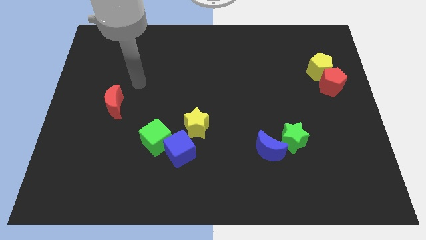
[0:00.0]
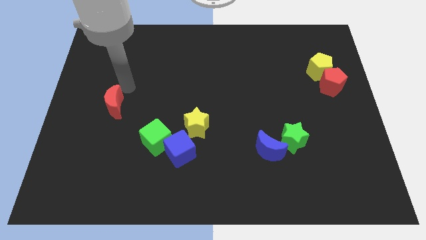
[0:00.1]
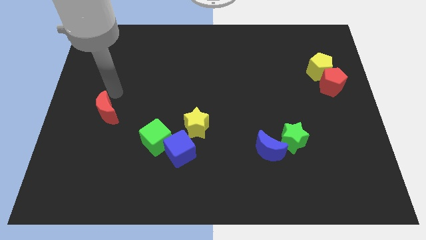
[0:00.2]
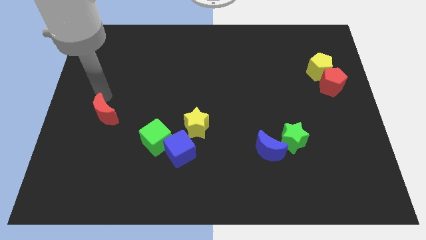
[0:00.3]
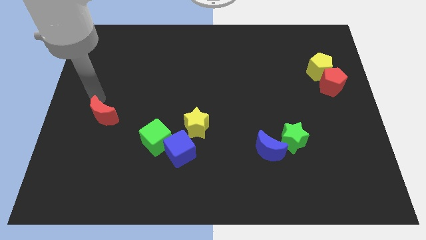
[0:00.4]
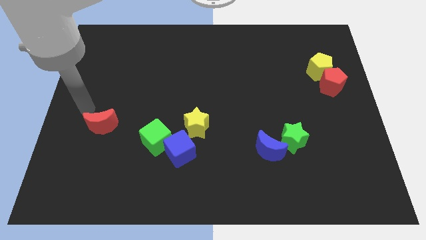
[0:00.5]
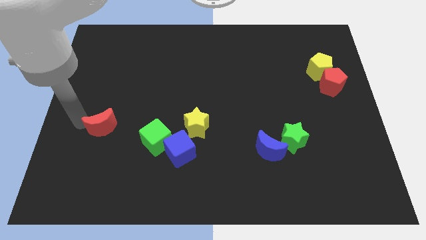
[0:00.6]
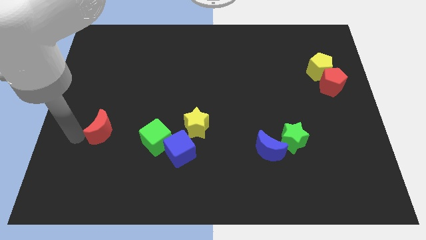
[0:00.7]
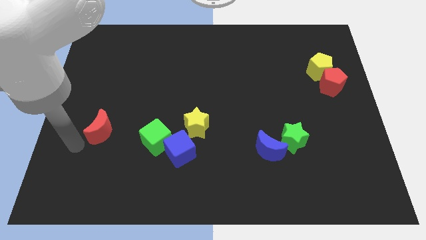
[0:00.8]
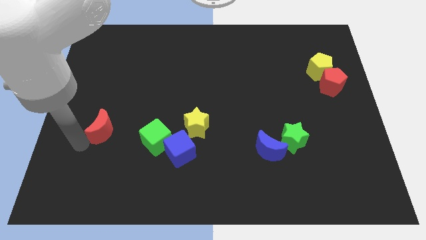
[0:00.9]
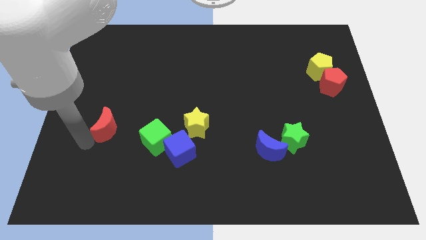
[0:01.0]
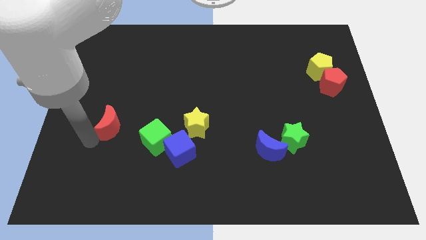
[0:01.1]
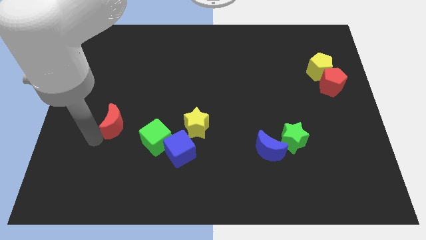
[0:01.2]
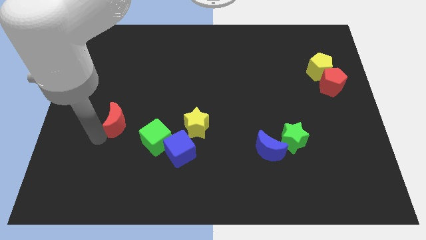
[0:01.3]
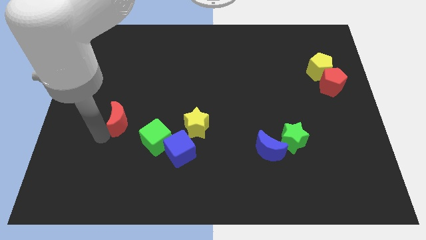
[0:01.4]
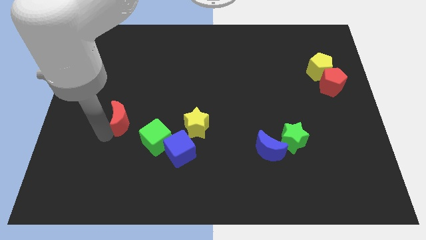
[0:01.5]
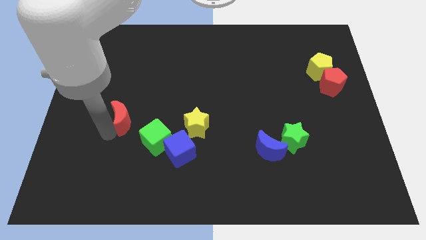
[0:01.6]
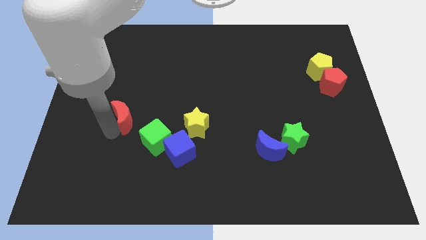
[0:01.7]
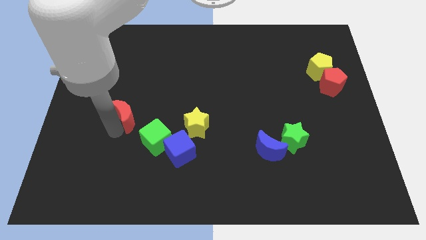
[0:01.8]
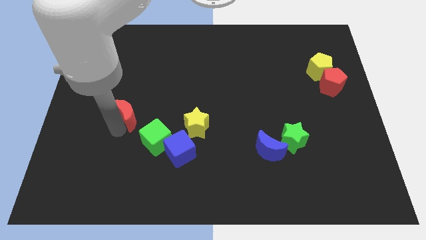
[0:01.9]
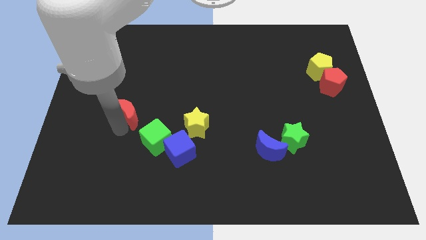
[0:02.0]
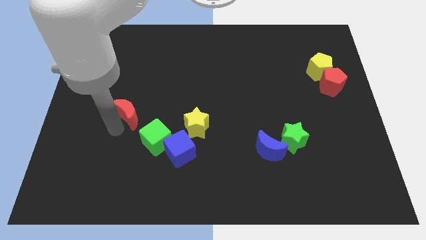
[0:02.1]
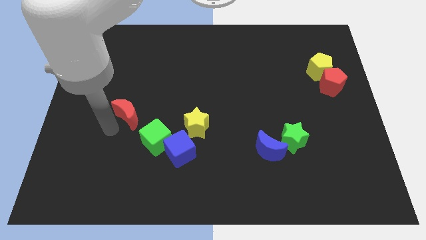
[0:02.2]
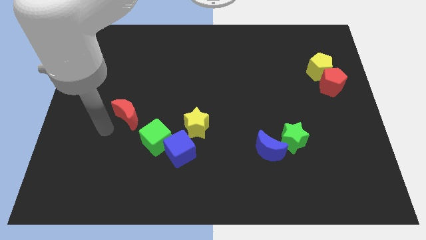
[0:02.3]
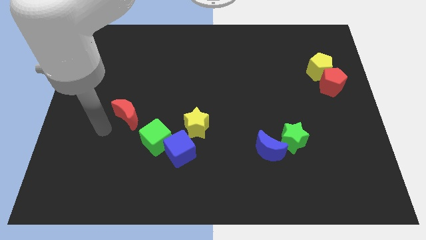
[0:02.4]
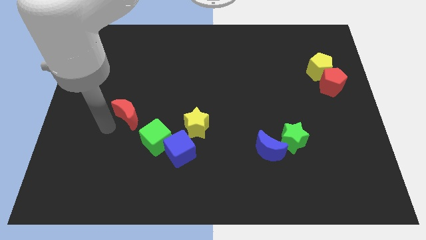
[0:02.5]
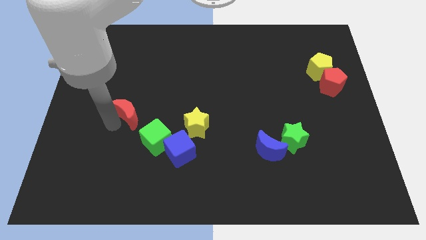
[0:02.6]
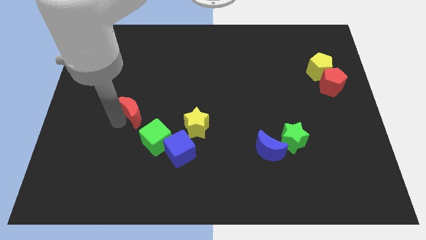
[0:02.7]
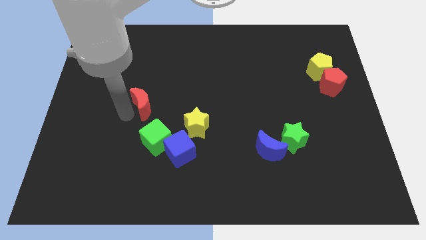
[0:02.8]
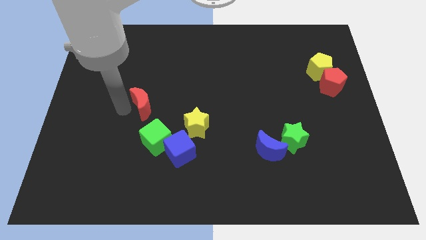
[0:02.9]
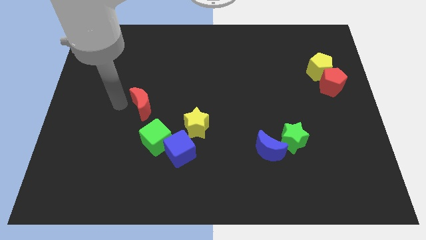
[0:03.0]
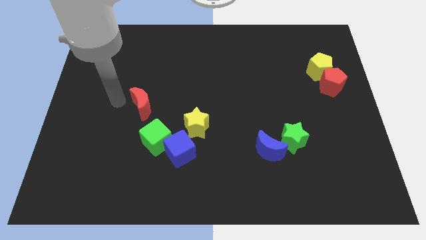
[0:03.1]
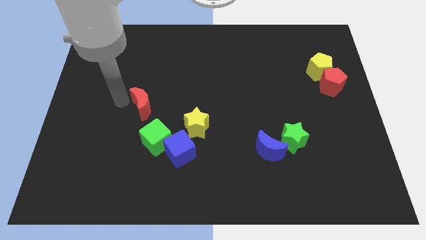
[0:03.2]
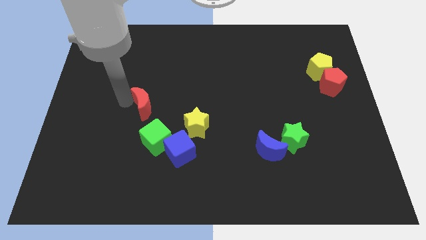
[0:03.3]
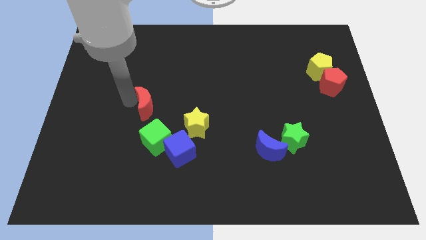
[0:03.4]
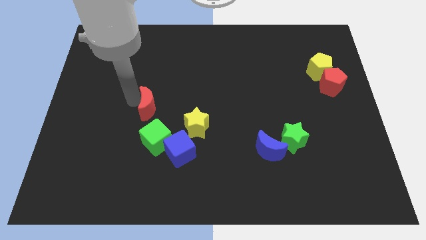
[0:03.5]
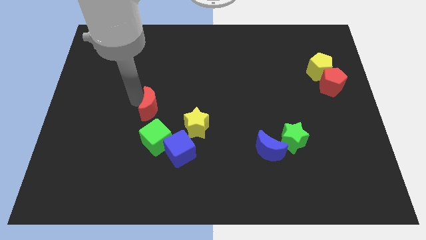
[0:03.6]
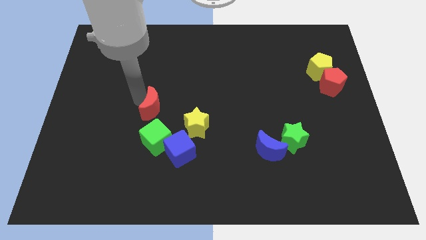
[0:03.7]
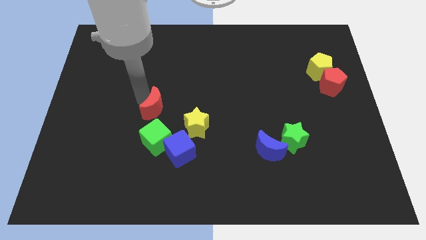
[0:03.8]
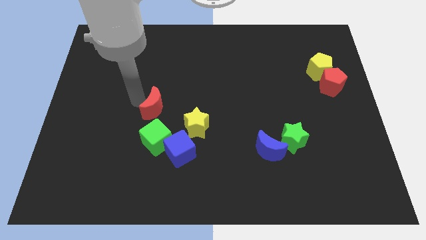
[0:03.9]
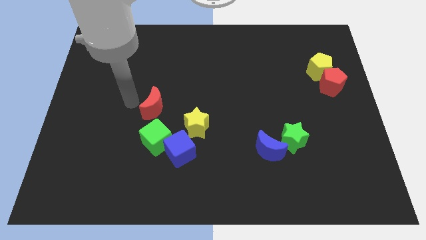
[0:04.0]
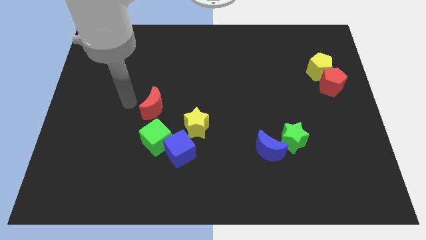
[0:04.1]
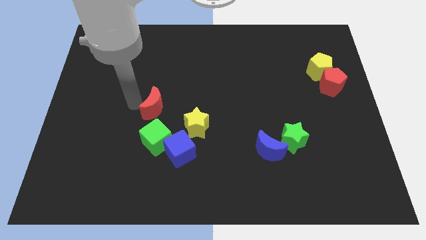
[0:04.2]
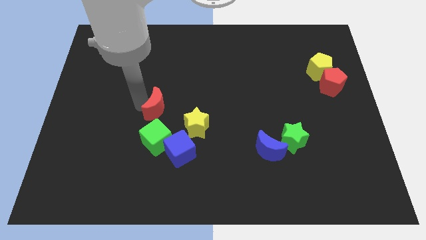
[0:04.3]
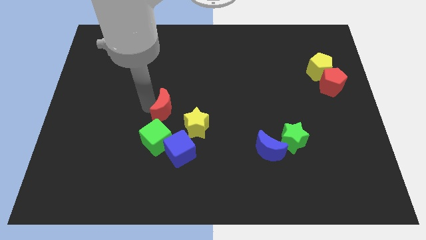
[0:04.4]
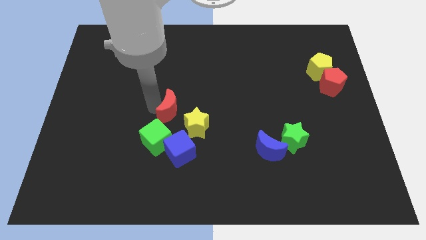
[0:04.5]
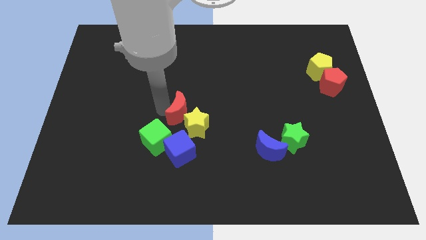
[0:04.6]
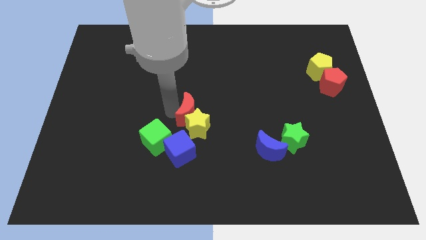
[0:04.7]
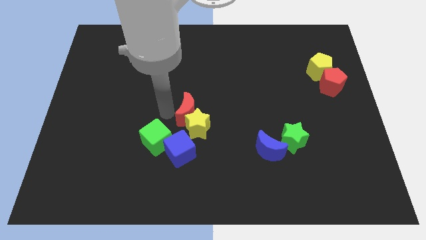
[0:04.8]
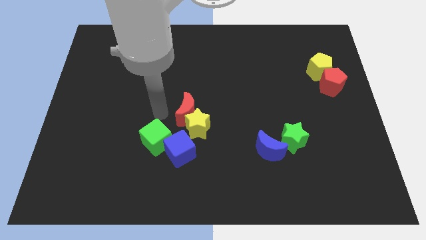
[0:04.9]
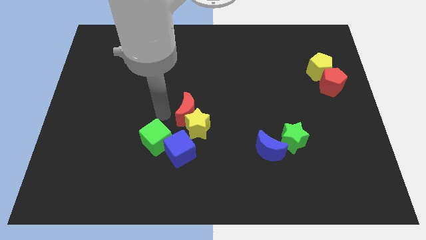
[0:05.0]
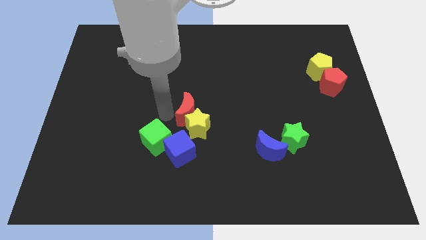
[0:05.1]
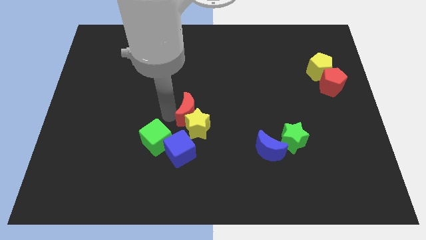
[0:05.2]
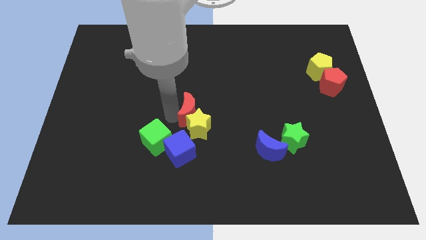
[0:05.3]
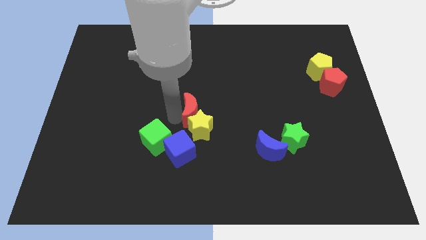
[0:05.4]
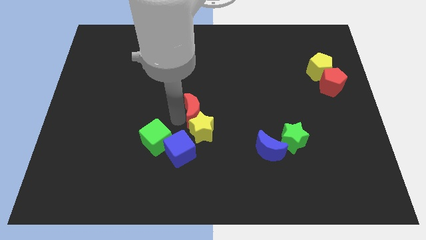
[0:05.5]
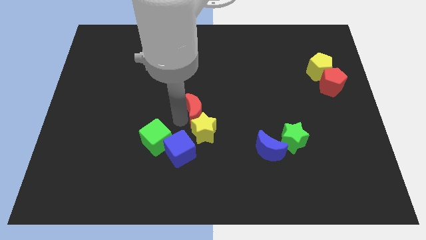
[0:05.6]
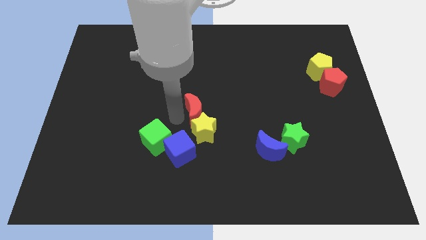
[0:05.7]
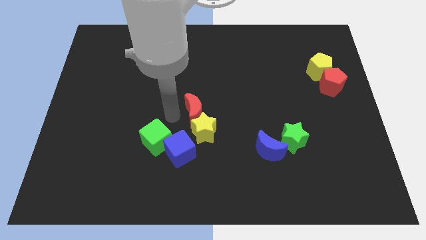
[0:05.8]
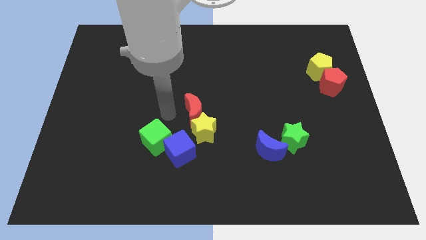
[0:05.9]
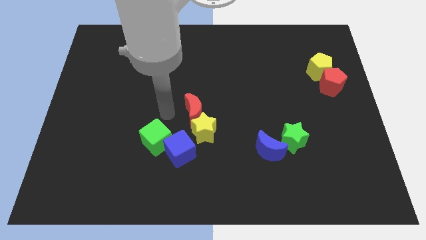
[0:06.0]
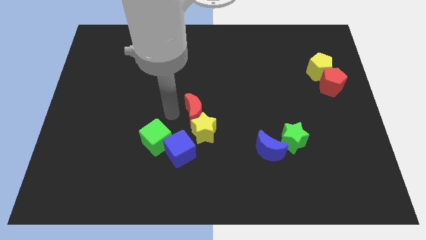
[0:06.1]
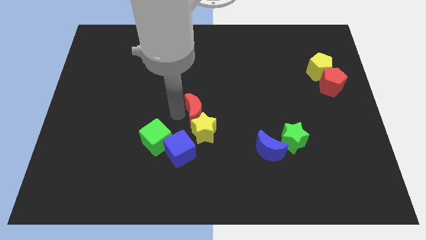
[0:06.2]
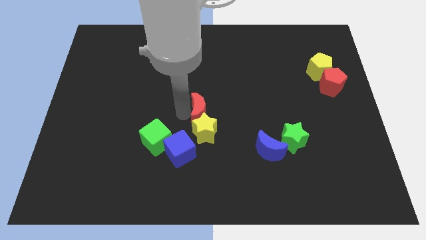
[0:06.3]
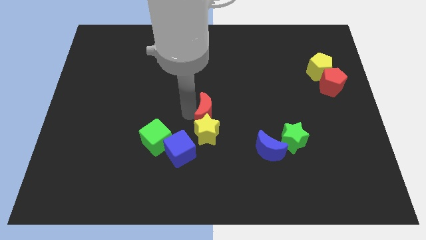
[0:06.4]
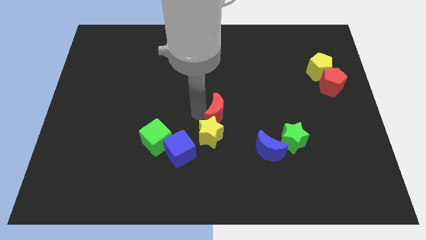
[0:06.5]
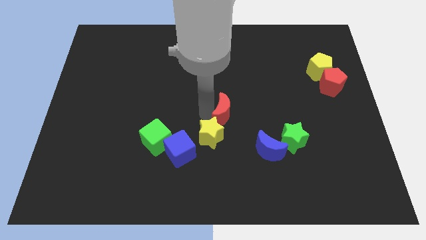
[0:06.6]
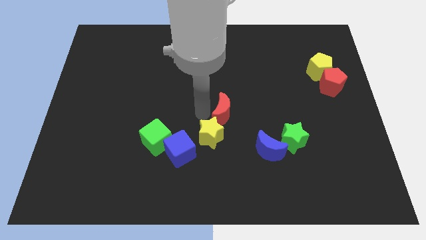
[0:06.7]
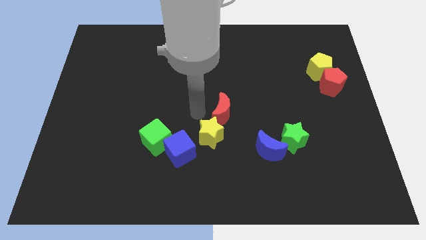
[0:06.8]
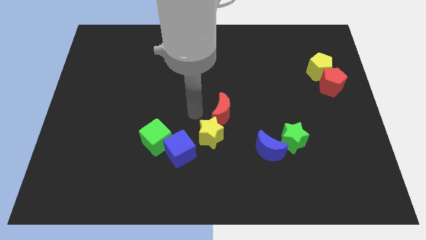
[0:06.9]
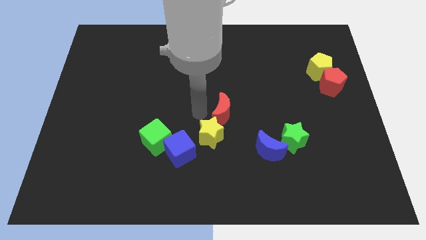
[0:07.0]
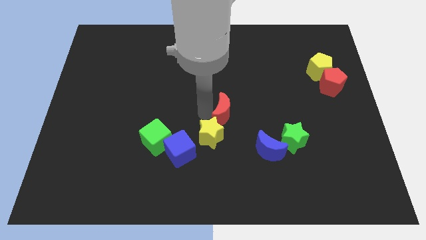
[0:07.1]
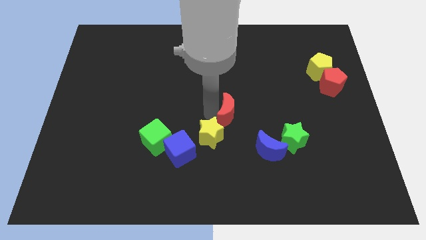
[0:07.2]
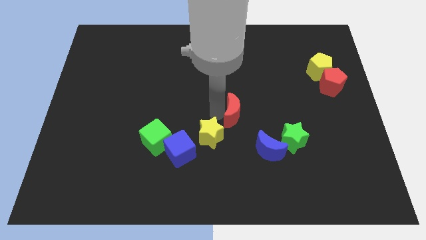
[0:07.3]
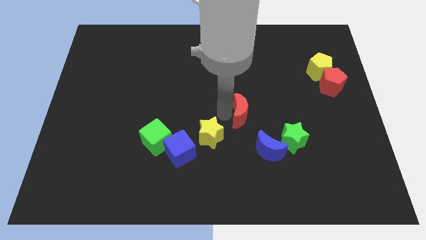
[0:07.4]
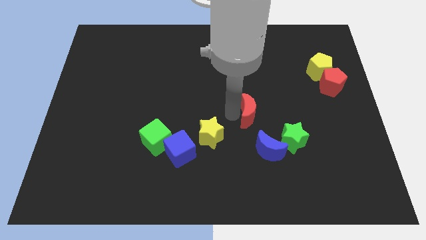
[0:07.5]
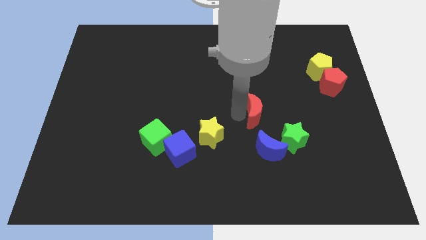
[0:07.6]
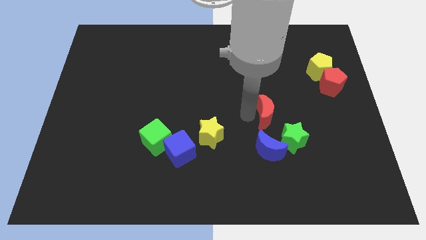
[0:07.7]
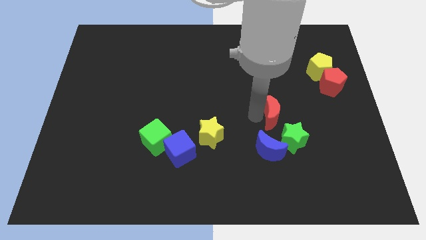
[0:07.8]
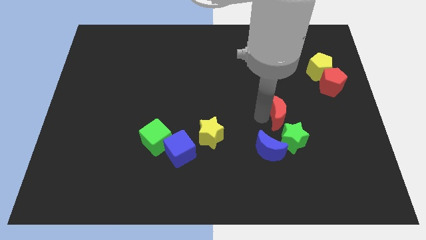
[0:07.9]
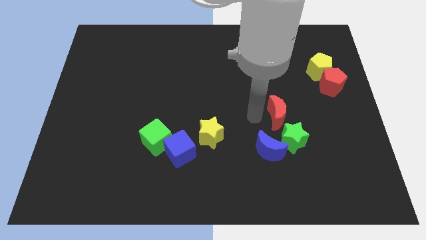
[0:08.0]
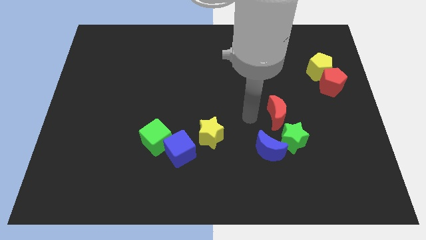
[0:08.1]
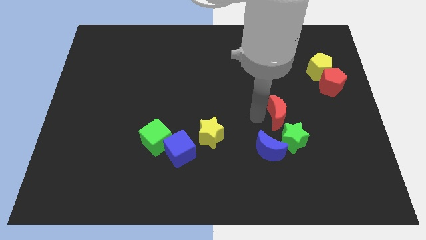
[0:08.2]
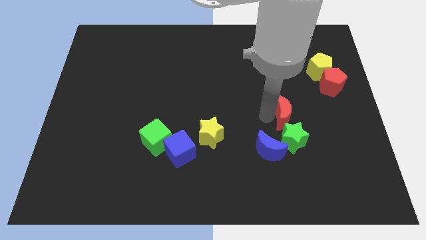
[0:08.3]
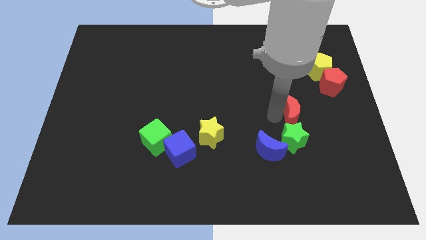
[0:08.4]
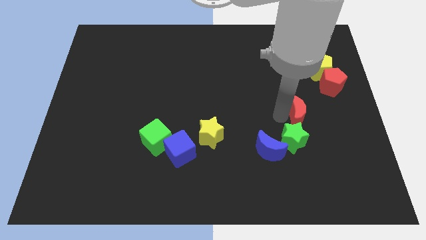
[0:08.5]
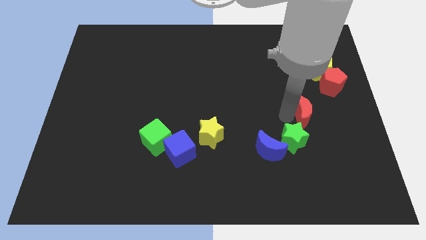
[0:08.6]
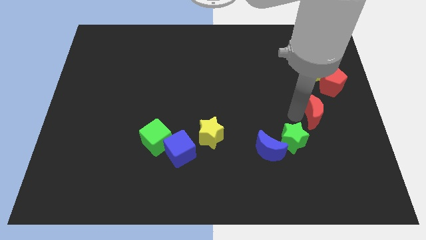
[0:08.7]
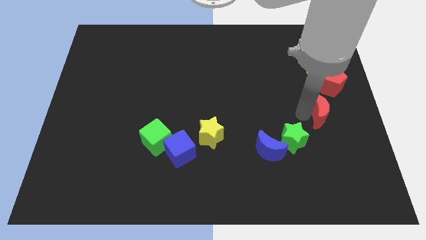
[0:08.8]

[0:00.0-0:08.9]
slide the red moon to the bottom side of the red pentagon
